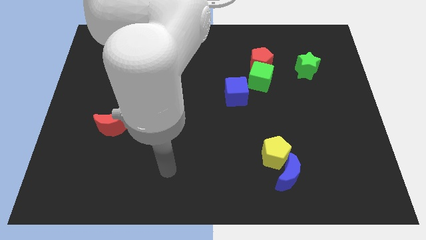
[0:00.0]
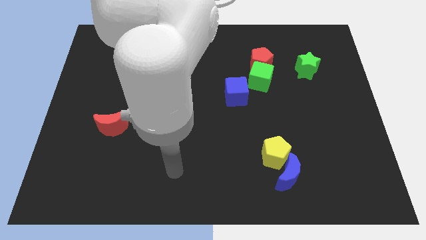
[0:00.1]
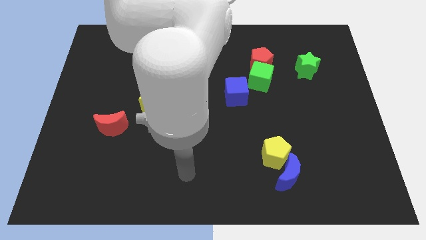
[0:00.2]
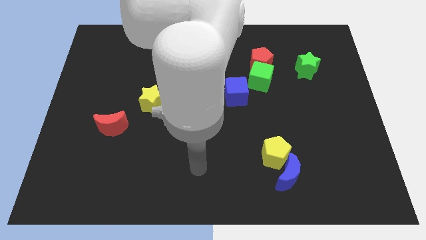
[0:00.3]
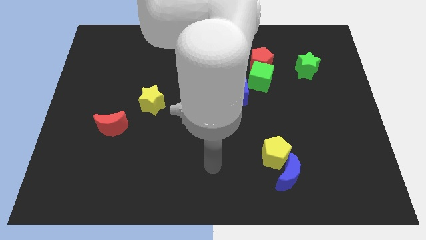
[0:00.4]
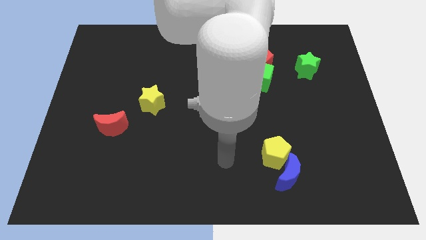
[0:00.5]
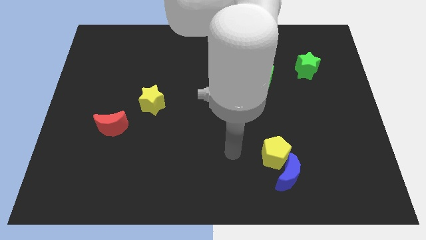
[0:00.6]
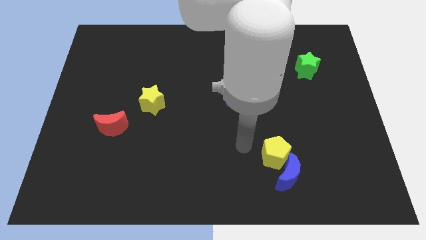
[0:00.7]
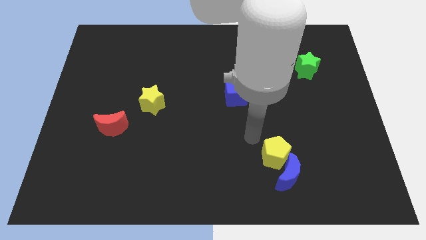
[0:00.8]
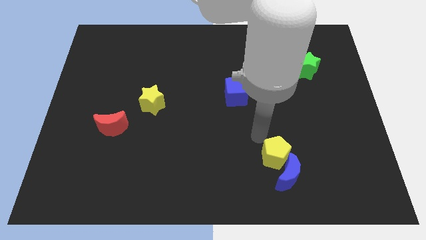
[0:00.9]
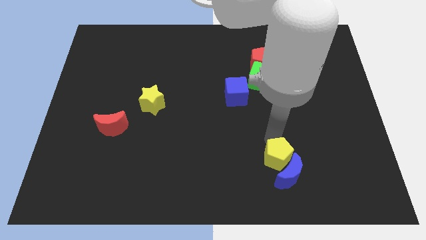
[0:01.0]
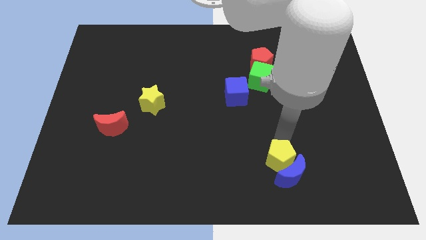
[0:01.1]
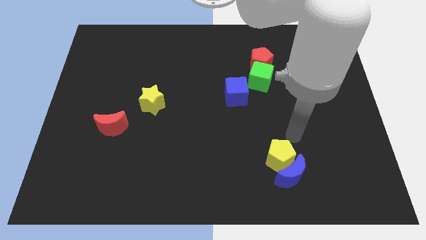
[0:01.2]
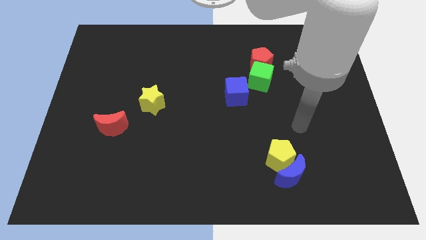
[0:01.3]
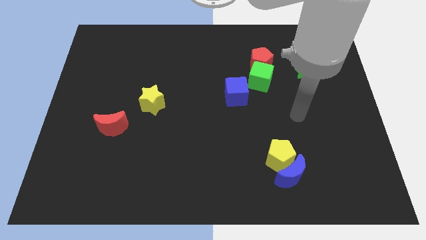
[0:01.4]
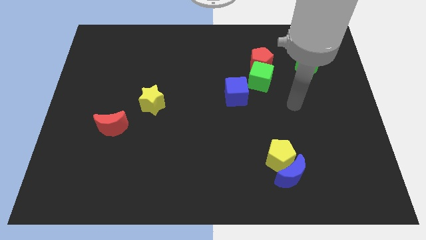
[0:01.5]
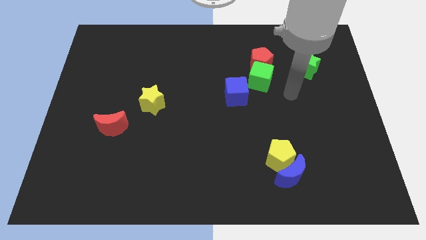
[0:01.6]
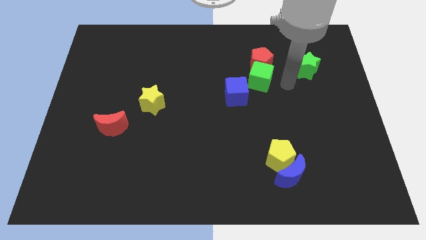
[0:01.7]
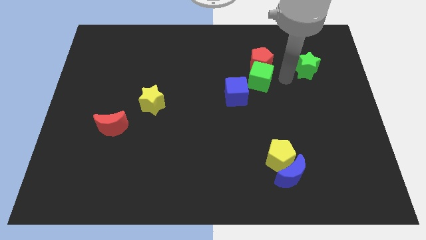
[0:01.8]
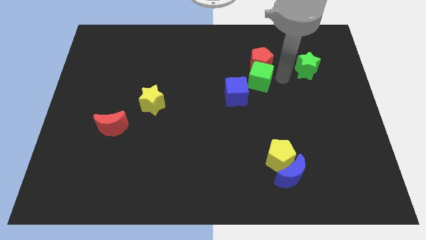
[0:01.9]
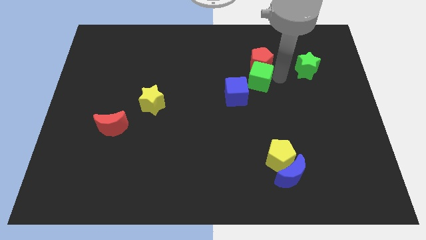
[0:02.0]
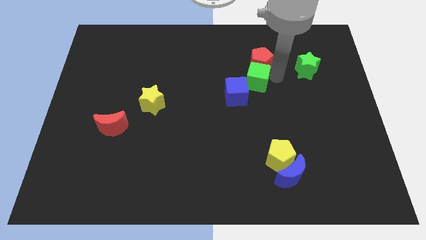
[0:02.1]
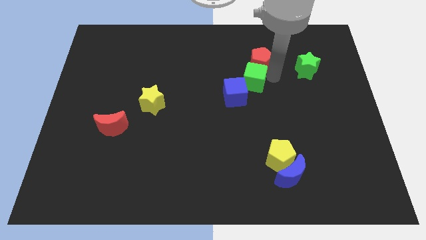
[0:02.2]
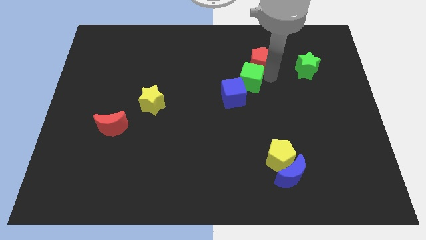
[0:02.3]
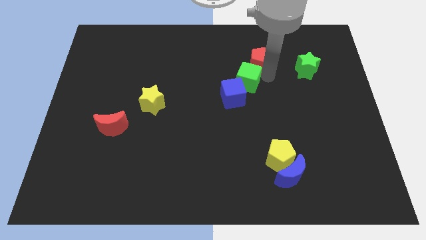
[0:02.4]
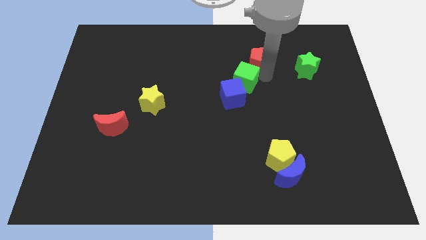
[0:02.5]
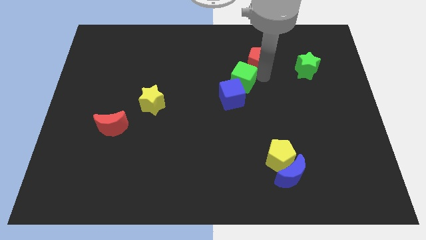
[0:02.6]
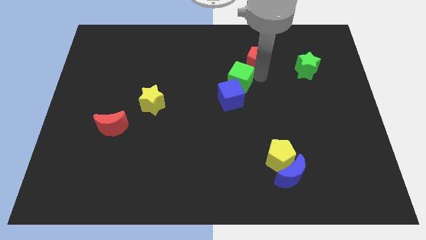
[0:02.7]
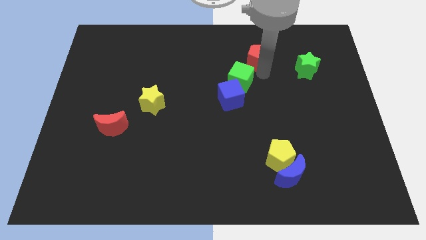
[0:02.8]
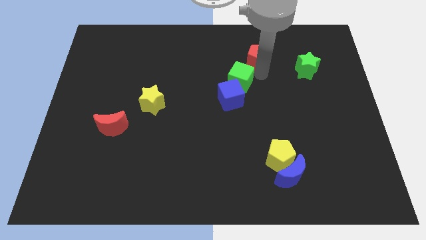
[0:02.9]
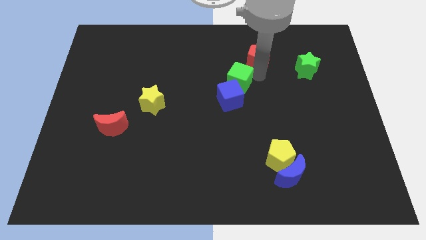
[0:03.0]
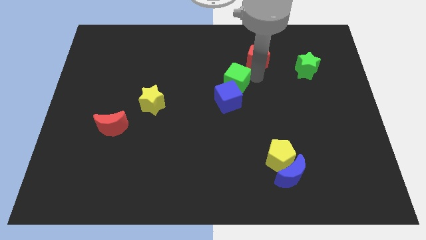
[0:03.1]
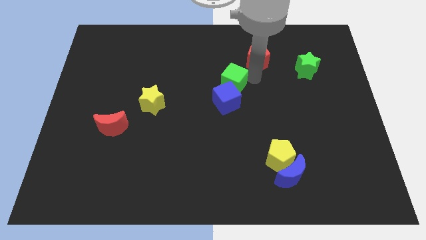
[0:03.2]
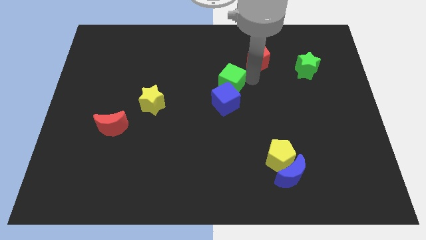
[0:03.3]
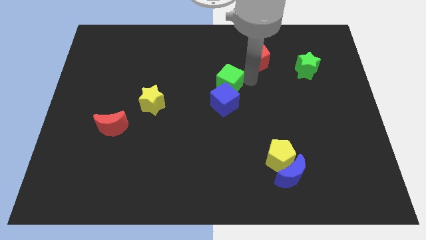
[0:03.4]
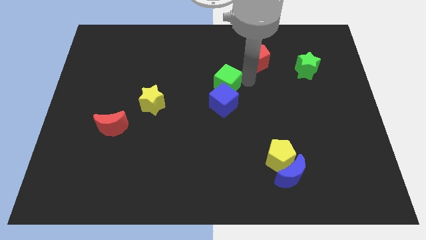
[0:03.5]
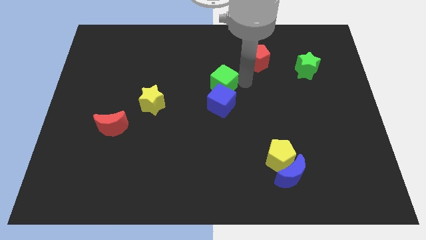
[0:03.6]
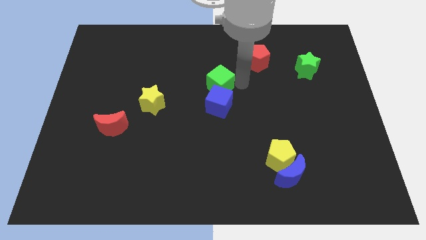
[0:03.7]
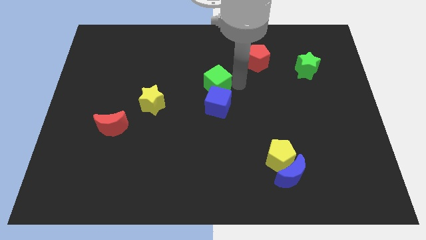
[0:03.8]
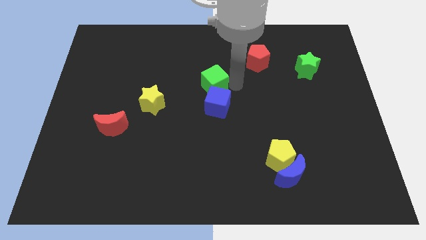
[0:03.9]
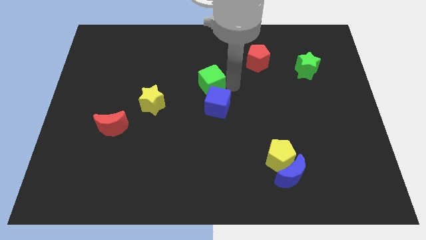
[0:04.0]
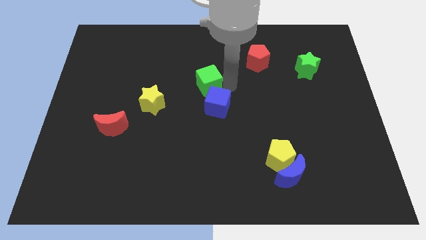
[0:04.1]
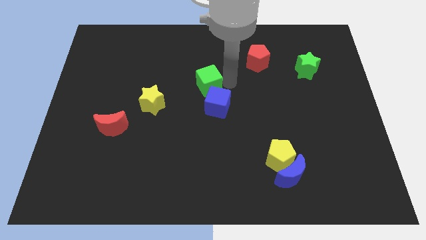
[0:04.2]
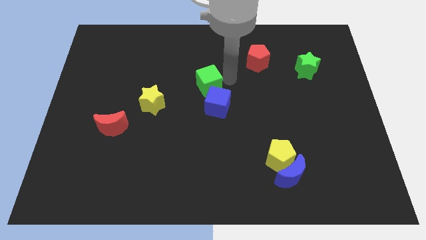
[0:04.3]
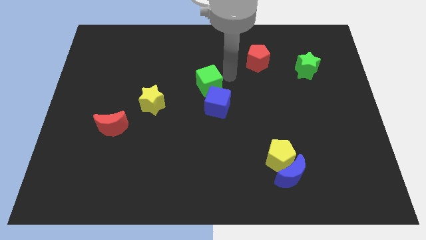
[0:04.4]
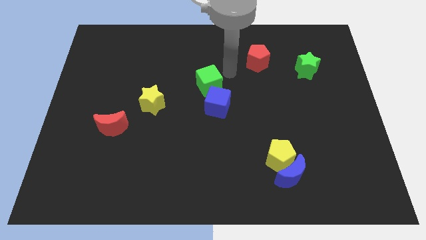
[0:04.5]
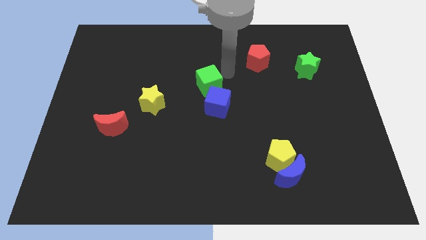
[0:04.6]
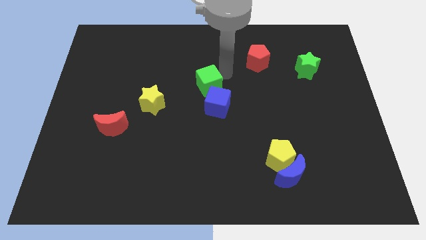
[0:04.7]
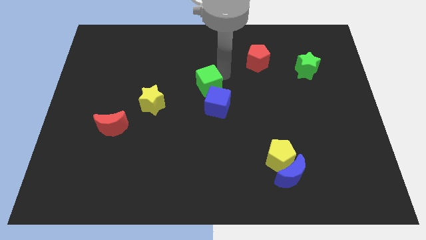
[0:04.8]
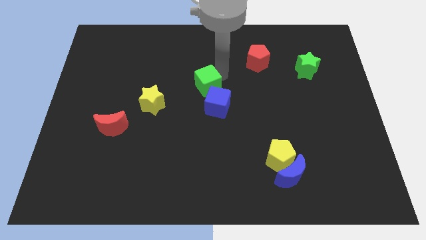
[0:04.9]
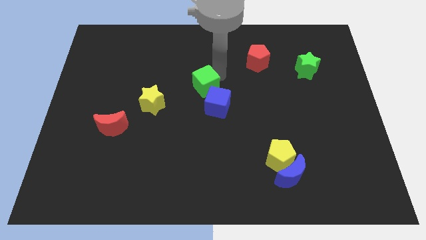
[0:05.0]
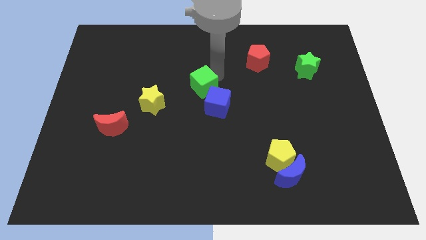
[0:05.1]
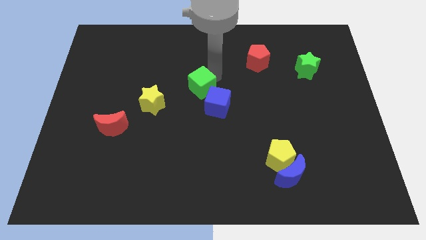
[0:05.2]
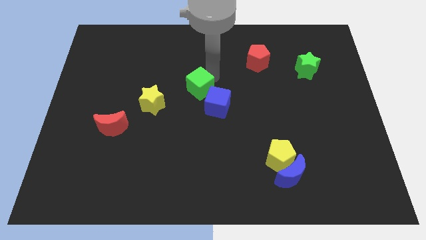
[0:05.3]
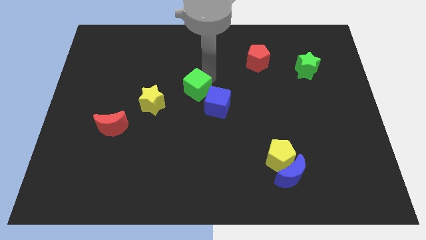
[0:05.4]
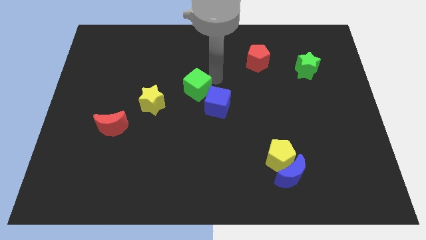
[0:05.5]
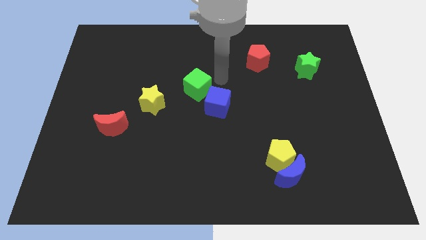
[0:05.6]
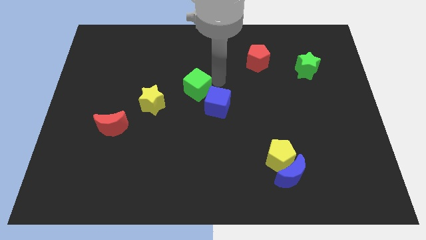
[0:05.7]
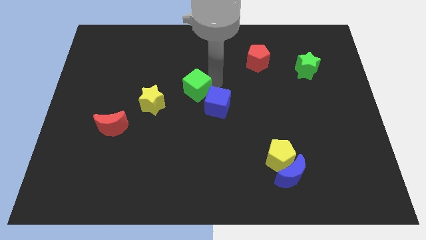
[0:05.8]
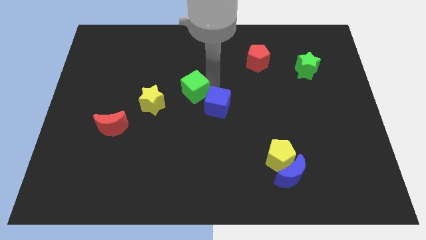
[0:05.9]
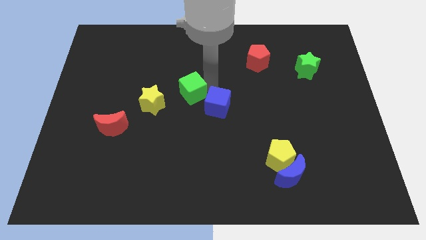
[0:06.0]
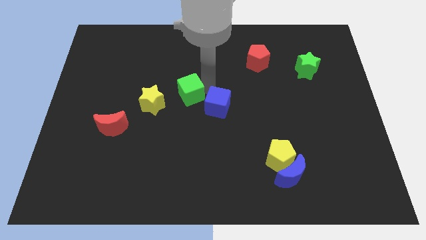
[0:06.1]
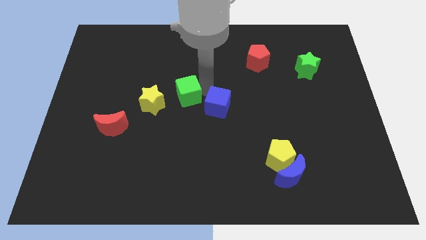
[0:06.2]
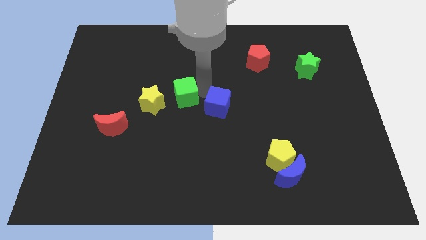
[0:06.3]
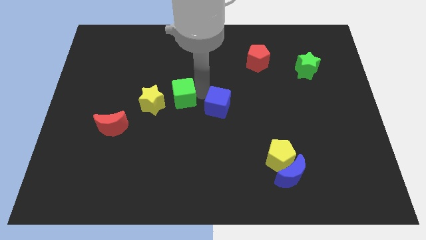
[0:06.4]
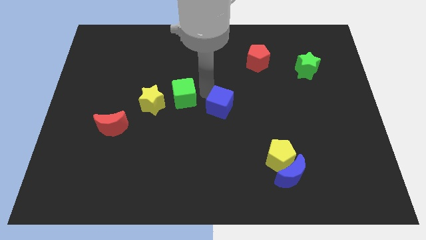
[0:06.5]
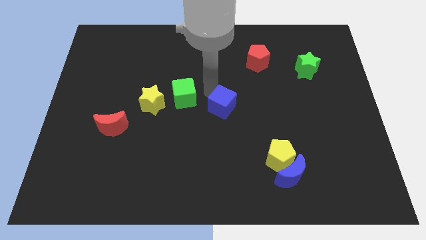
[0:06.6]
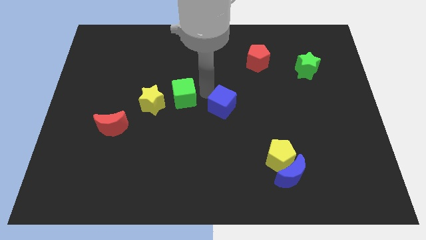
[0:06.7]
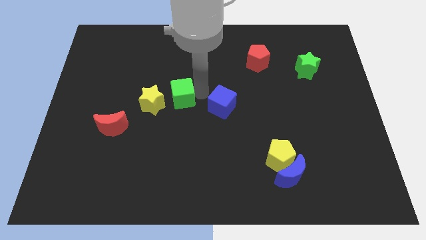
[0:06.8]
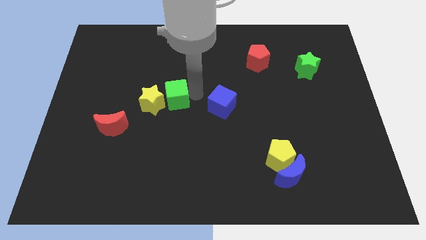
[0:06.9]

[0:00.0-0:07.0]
put the green cube close to the yellow star
